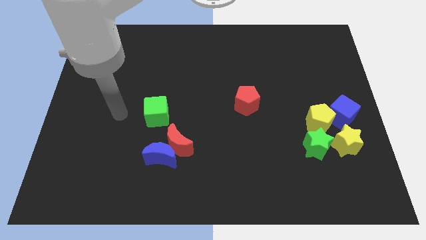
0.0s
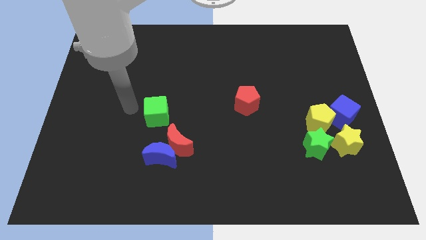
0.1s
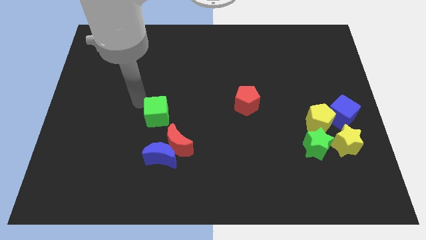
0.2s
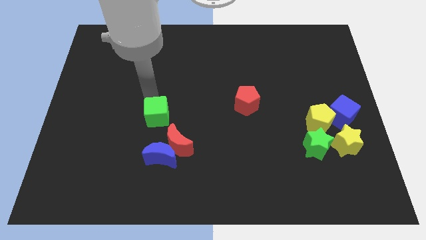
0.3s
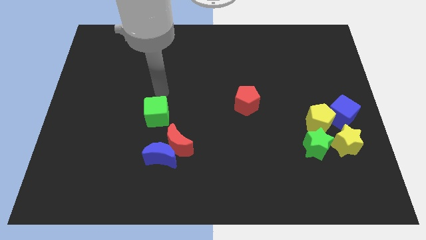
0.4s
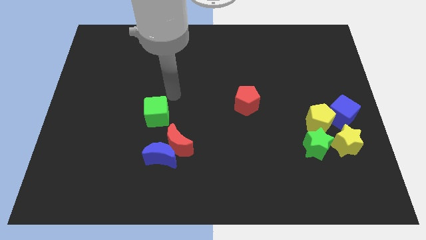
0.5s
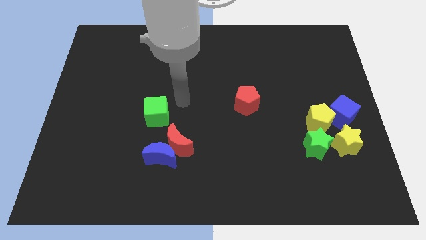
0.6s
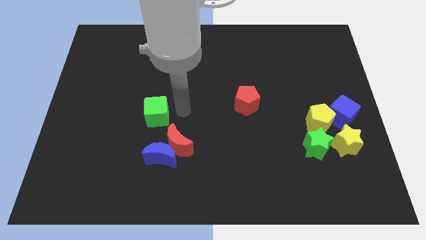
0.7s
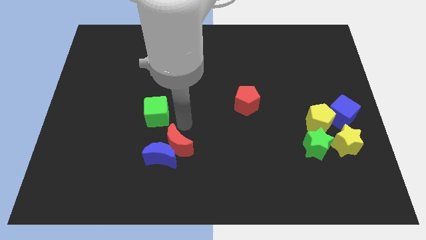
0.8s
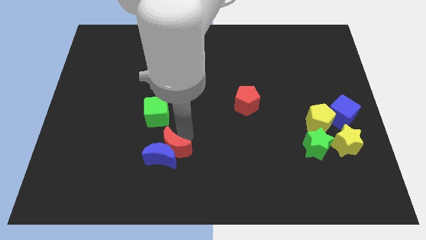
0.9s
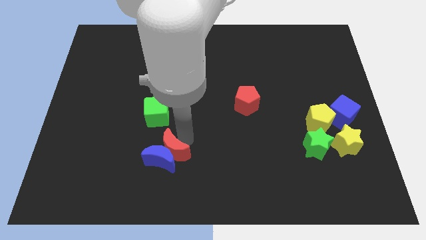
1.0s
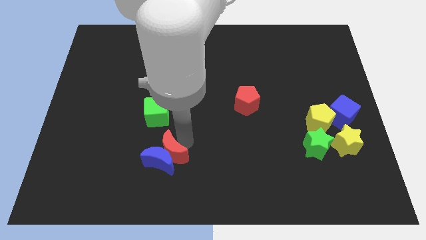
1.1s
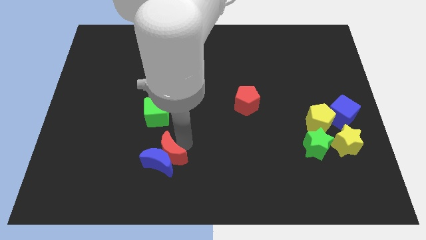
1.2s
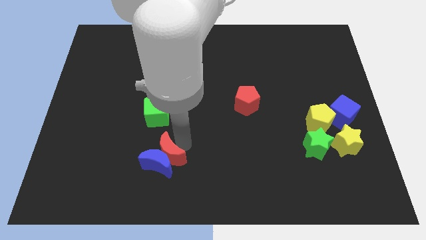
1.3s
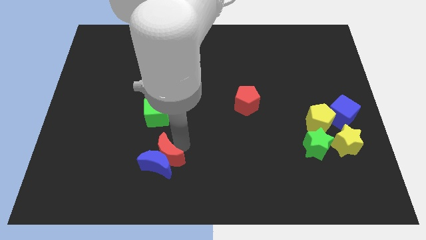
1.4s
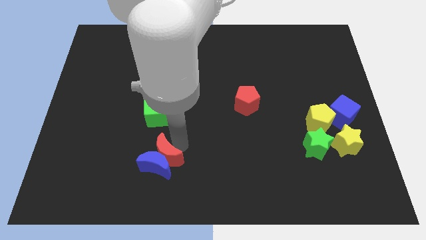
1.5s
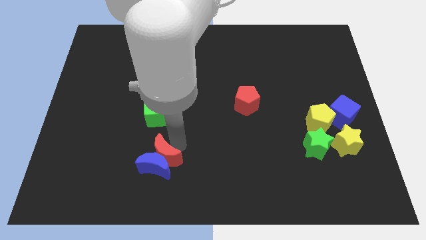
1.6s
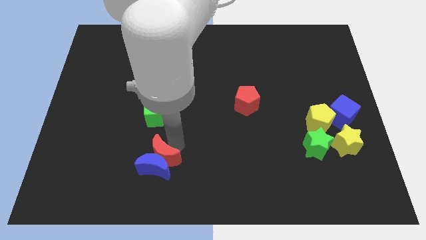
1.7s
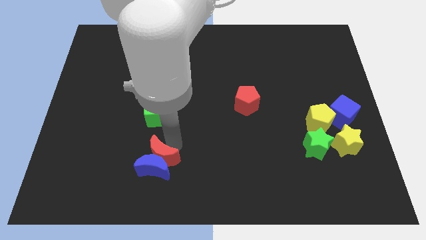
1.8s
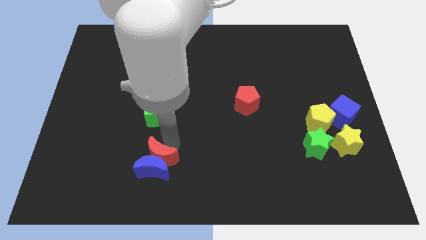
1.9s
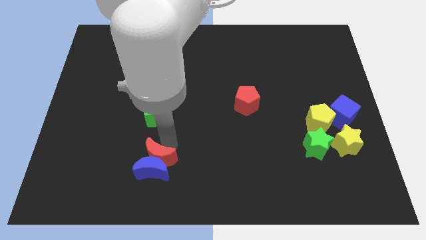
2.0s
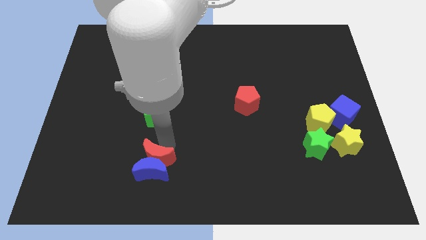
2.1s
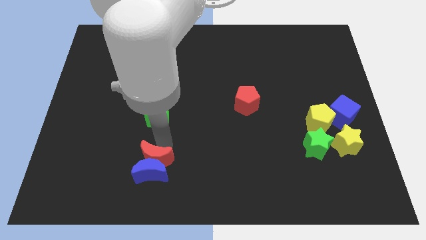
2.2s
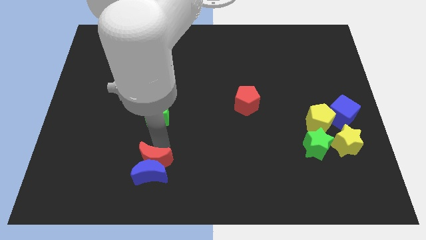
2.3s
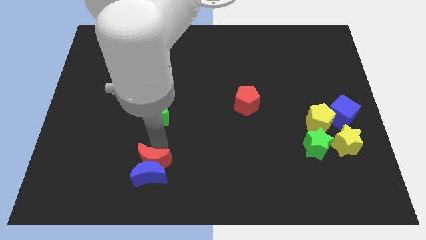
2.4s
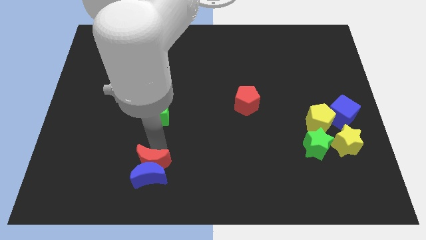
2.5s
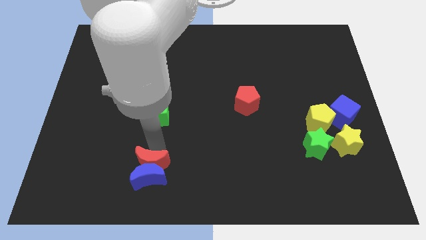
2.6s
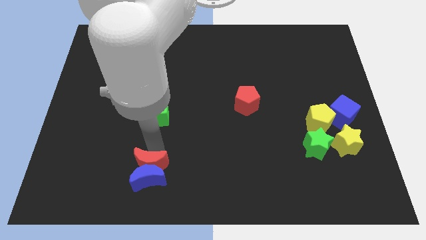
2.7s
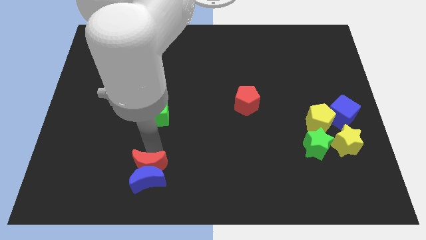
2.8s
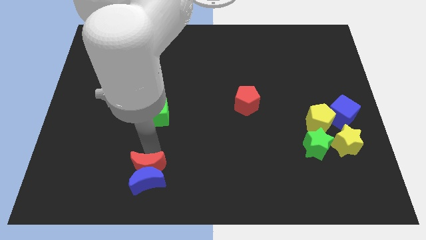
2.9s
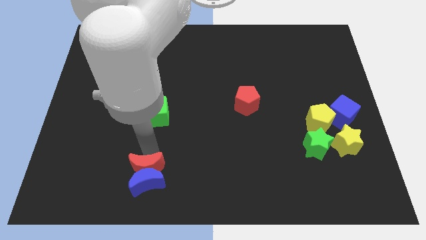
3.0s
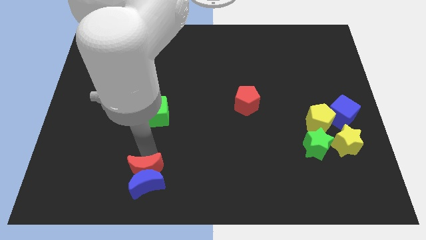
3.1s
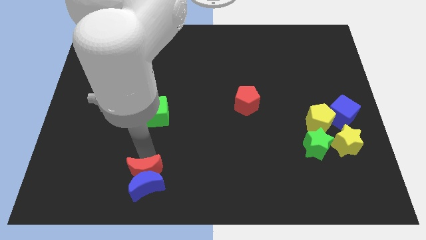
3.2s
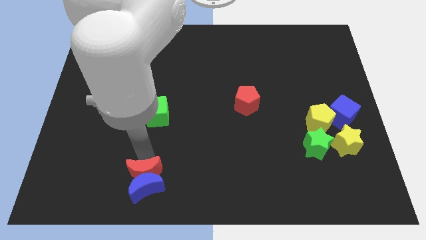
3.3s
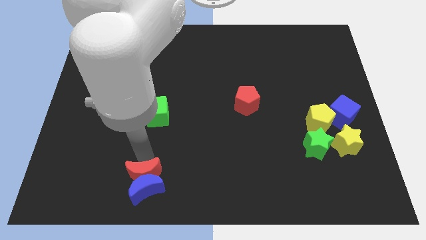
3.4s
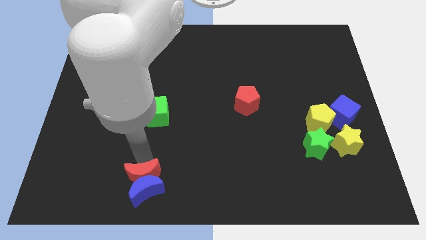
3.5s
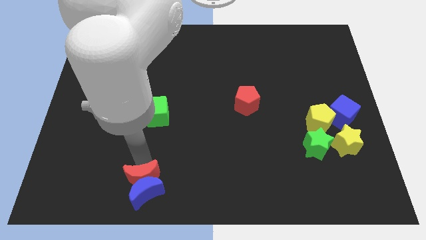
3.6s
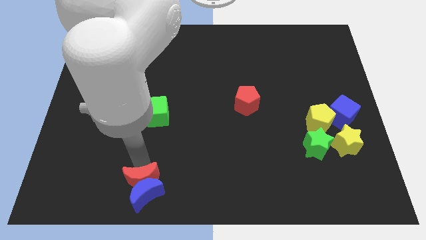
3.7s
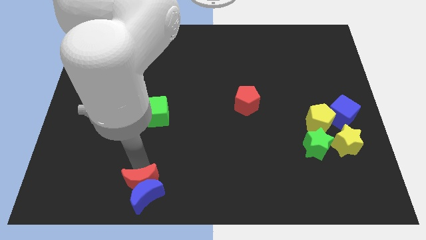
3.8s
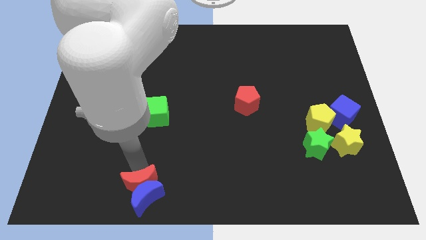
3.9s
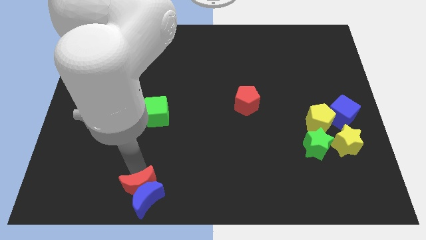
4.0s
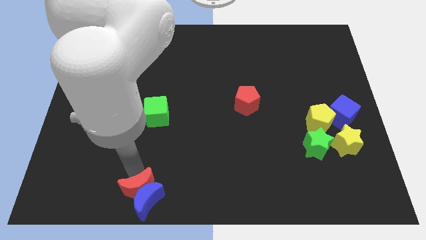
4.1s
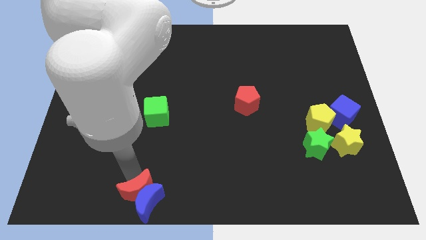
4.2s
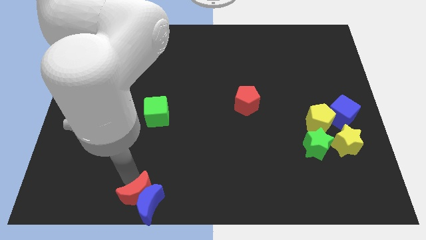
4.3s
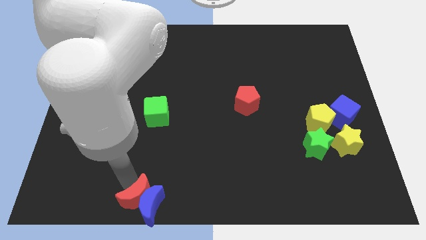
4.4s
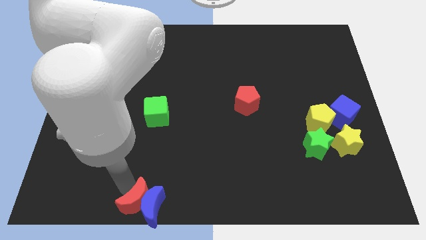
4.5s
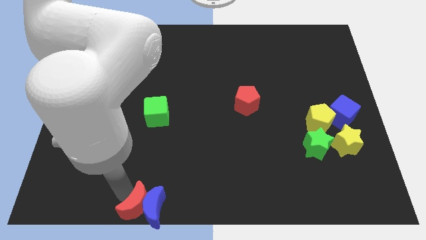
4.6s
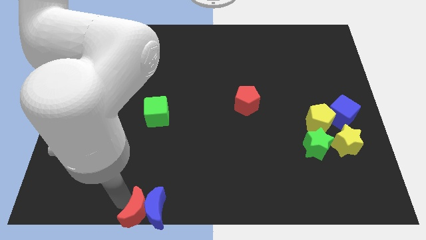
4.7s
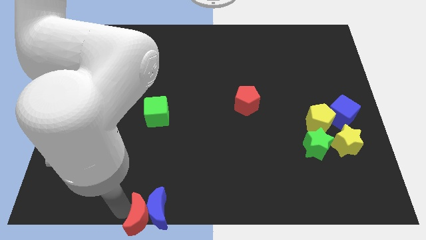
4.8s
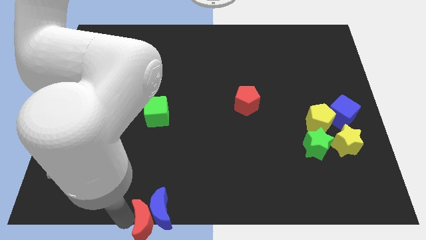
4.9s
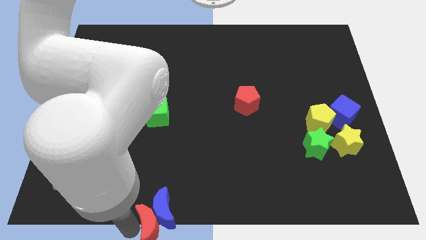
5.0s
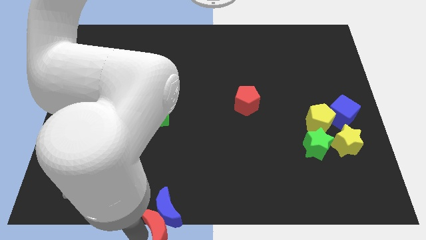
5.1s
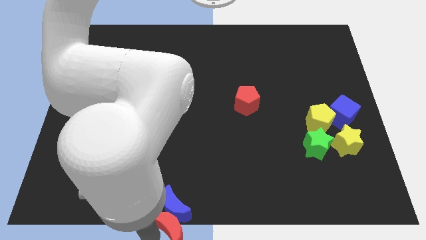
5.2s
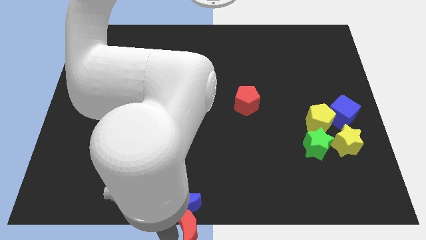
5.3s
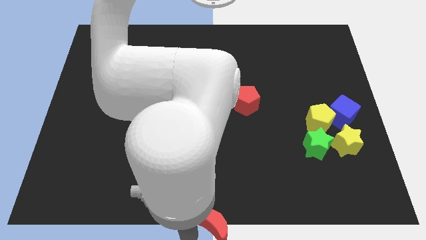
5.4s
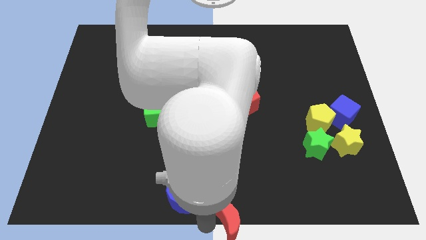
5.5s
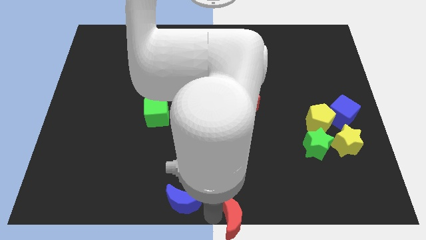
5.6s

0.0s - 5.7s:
move the blue moon away from the red moon

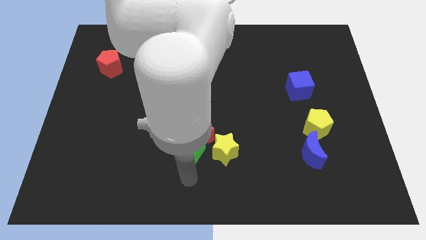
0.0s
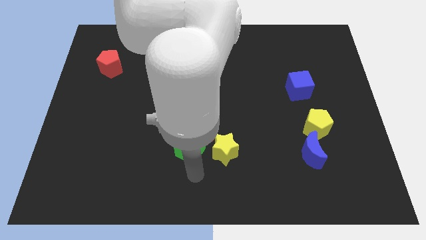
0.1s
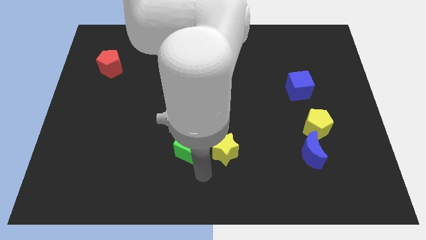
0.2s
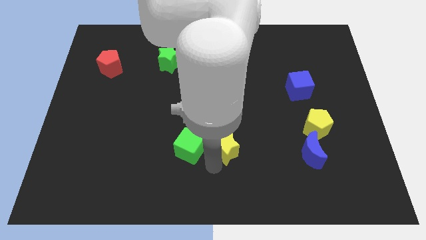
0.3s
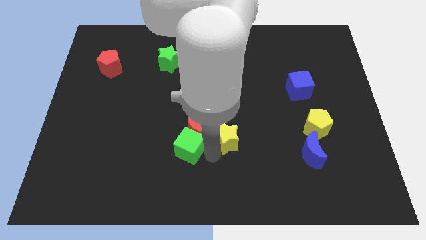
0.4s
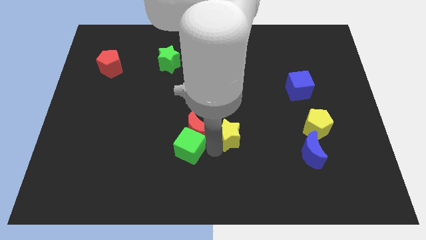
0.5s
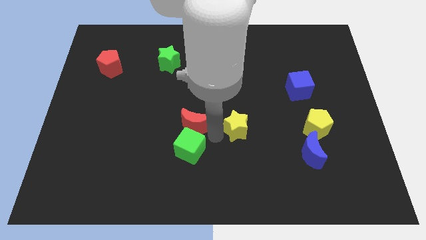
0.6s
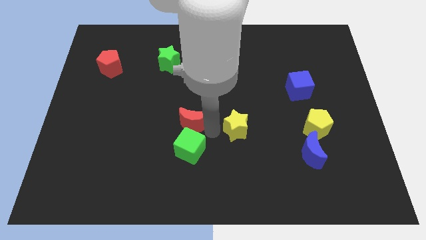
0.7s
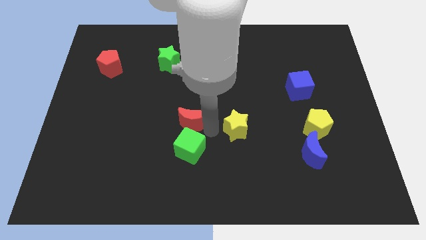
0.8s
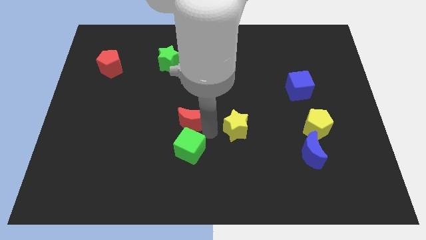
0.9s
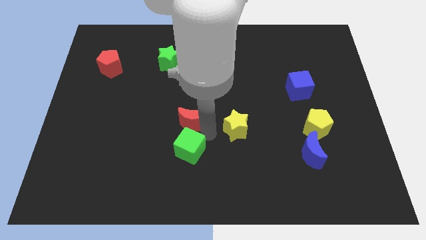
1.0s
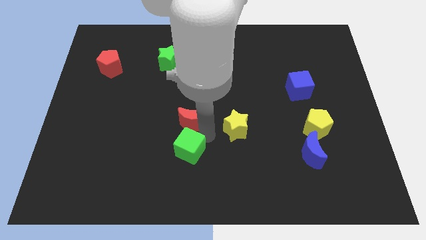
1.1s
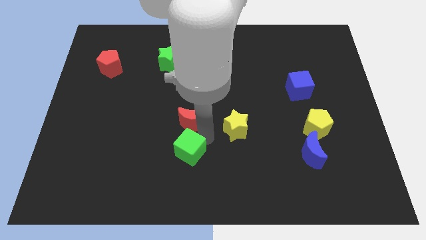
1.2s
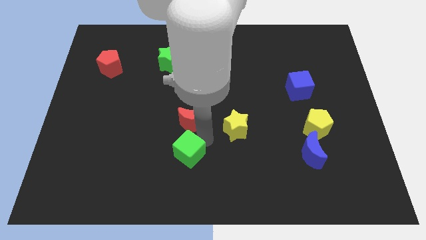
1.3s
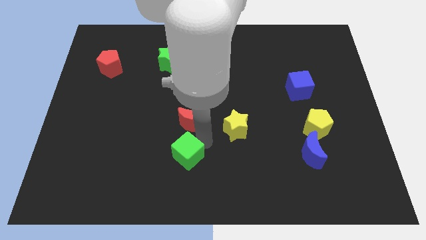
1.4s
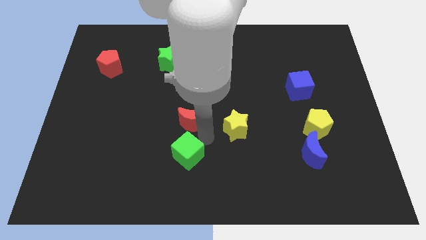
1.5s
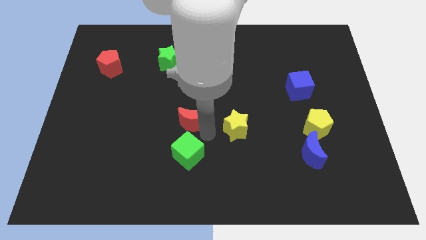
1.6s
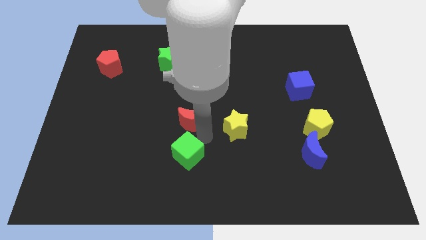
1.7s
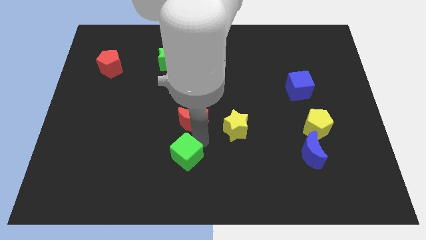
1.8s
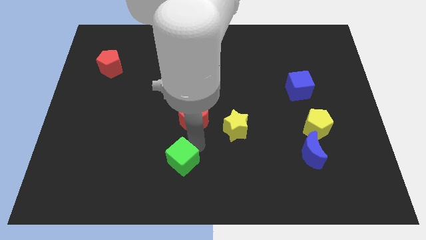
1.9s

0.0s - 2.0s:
pull the green cube apart from the red moon and yellow star

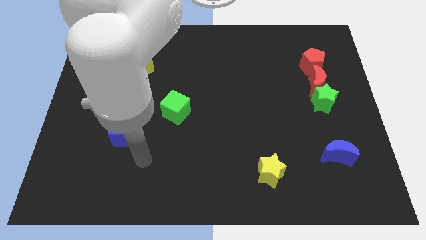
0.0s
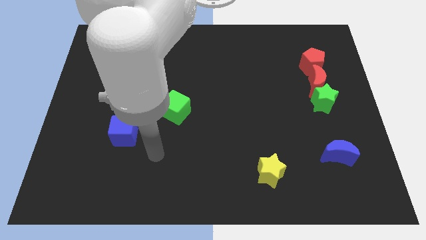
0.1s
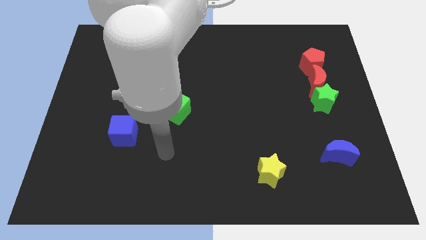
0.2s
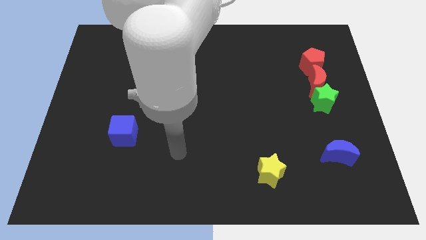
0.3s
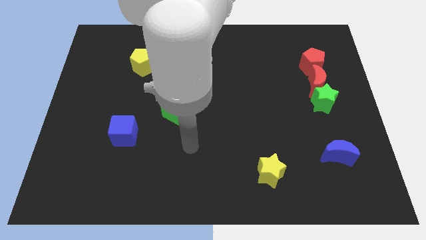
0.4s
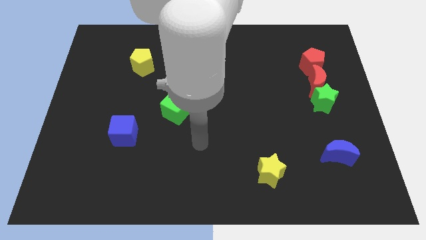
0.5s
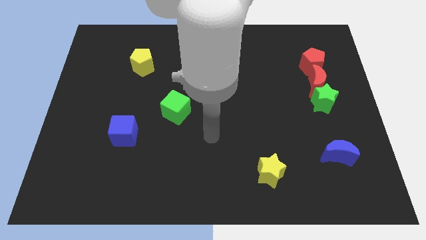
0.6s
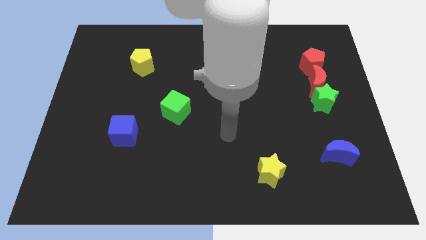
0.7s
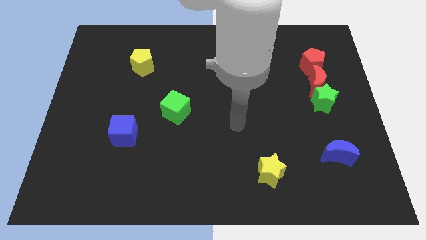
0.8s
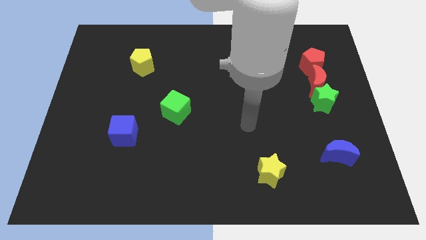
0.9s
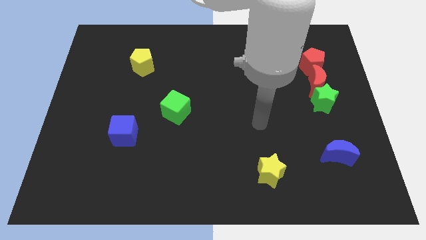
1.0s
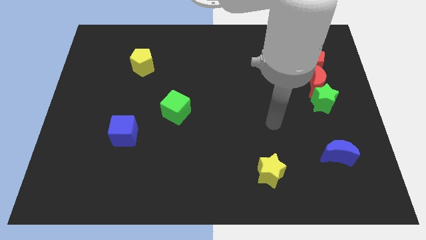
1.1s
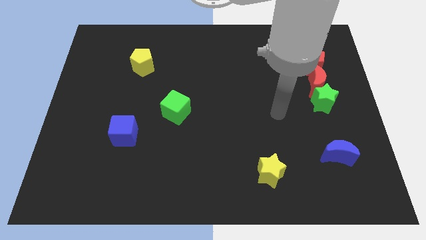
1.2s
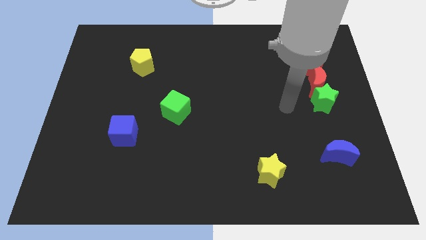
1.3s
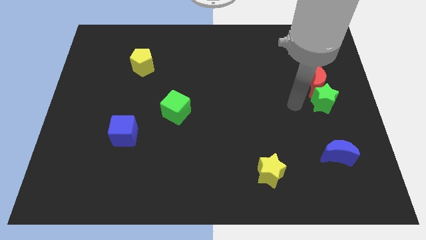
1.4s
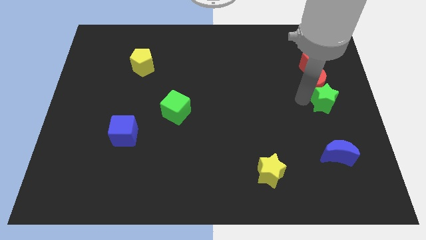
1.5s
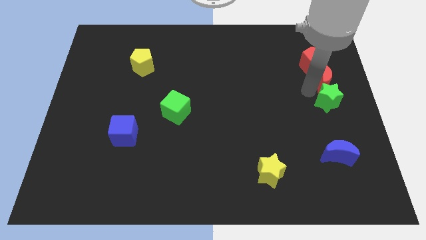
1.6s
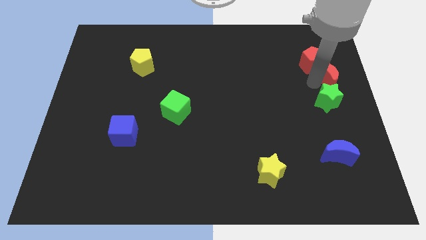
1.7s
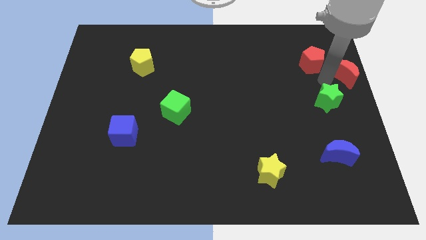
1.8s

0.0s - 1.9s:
separate the green star from the red moon
